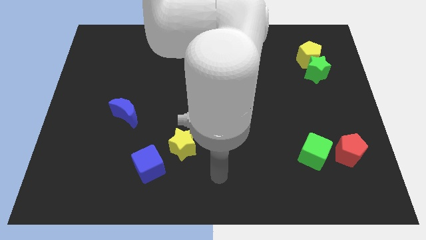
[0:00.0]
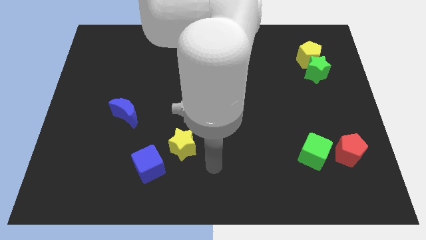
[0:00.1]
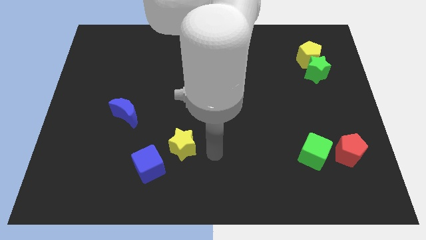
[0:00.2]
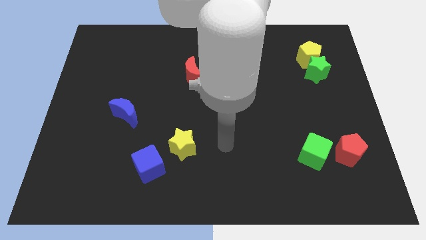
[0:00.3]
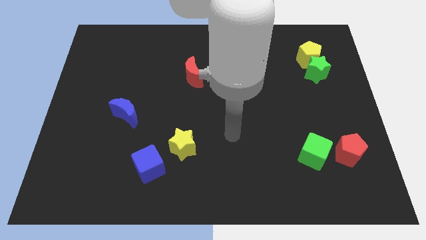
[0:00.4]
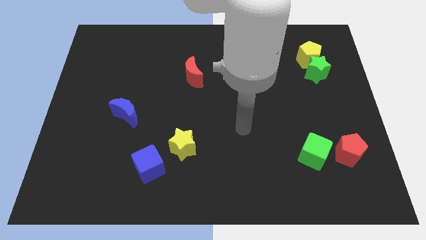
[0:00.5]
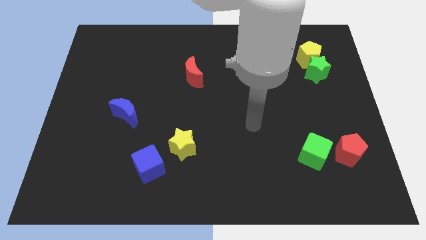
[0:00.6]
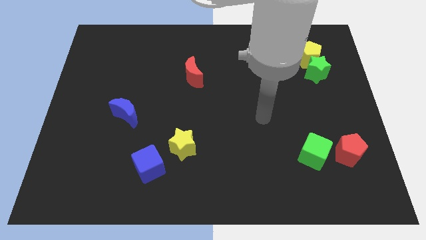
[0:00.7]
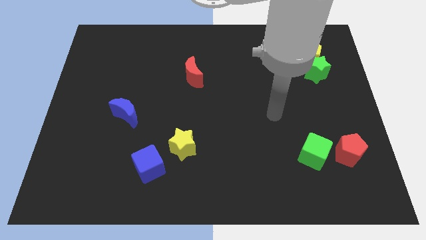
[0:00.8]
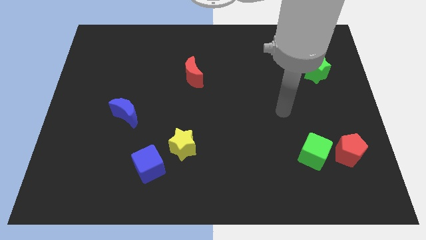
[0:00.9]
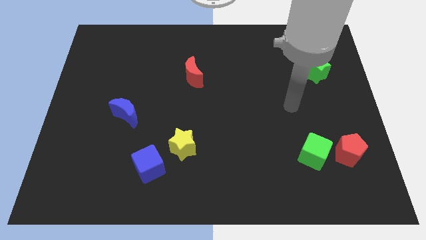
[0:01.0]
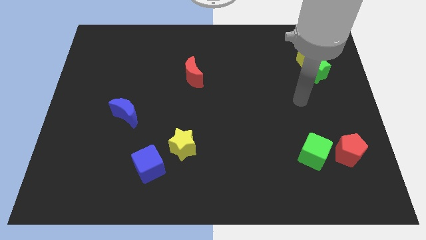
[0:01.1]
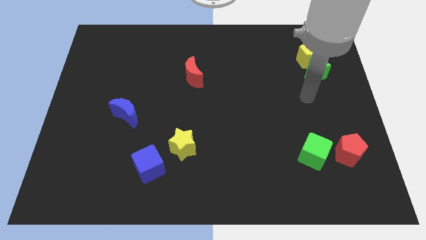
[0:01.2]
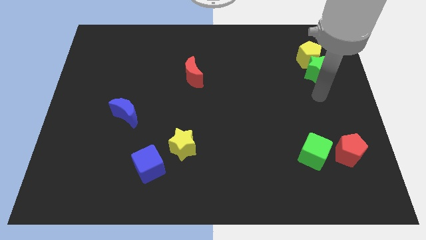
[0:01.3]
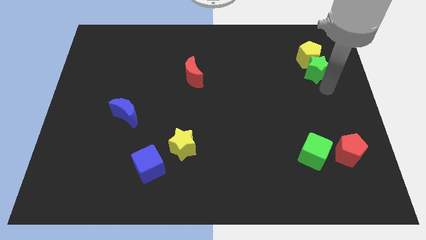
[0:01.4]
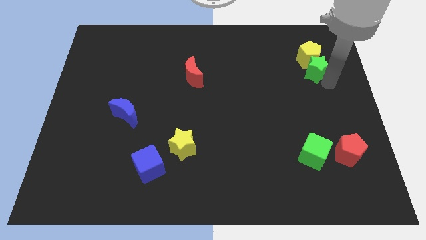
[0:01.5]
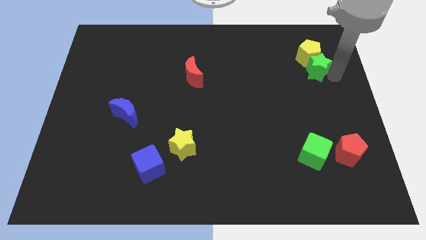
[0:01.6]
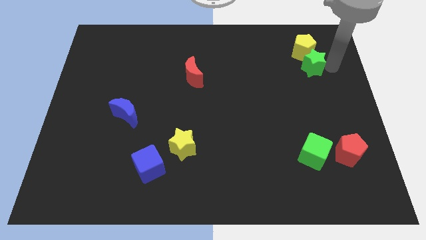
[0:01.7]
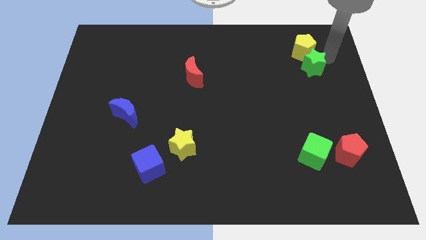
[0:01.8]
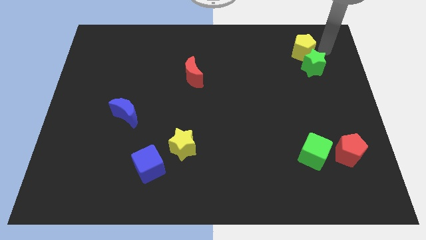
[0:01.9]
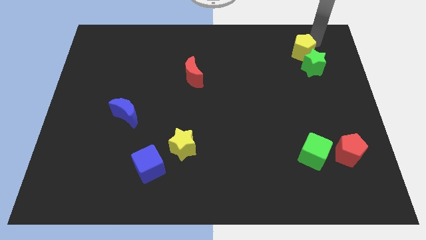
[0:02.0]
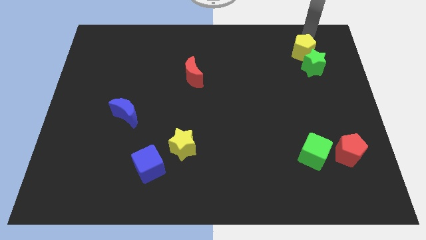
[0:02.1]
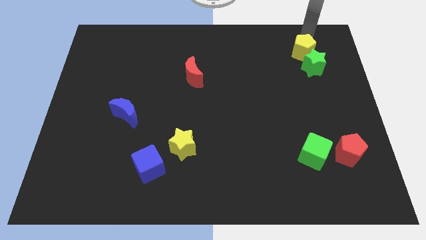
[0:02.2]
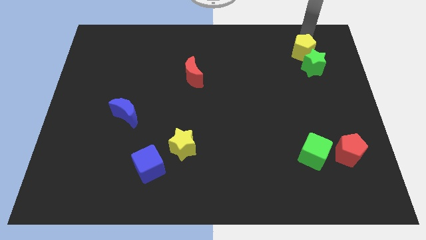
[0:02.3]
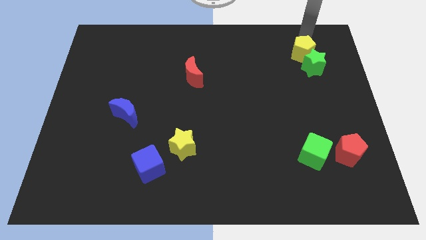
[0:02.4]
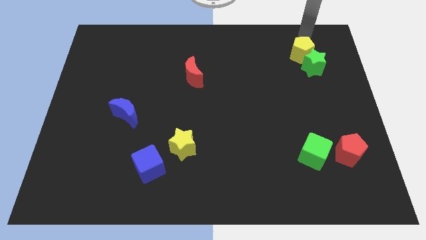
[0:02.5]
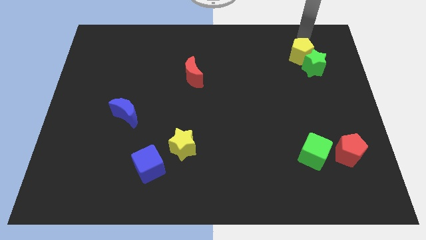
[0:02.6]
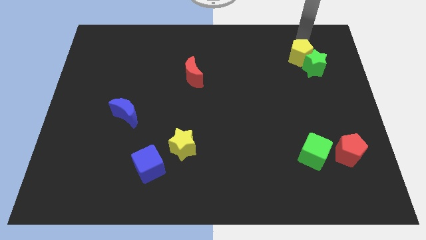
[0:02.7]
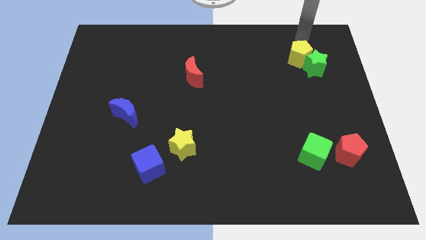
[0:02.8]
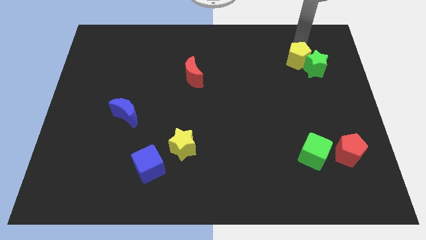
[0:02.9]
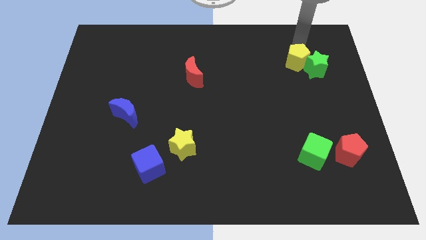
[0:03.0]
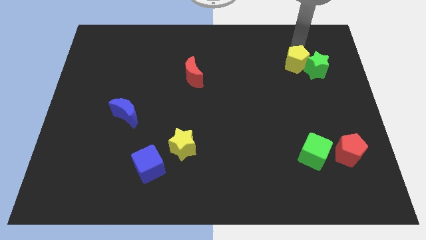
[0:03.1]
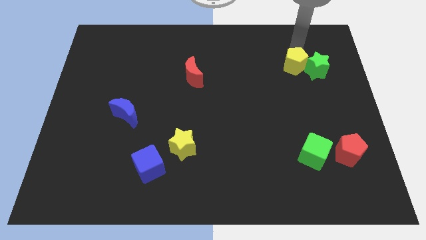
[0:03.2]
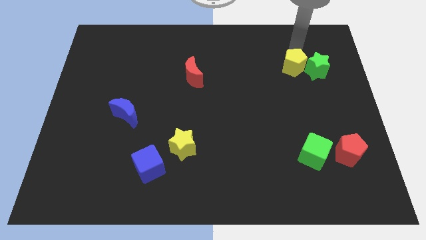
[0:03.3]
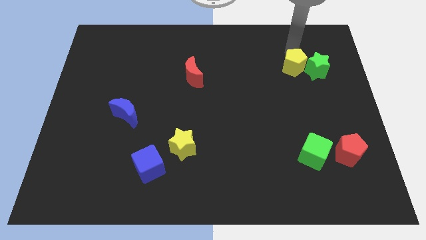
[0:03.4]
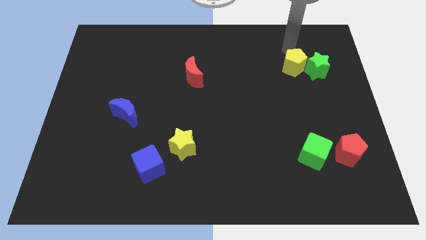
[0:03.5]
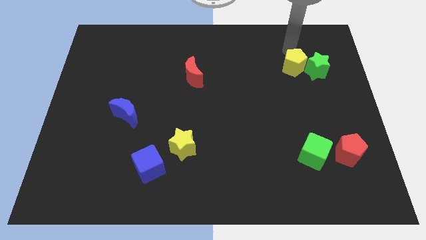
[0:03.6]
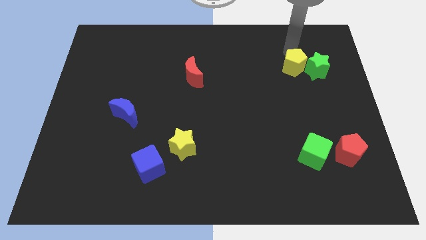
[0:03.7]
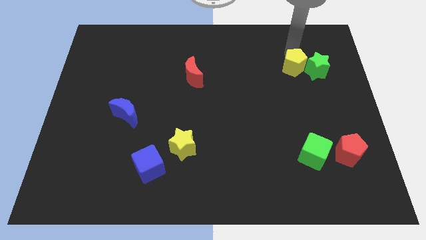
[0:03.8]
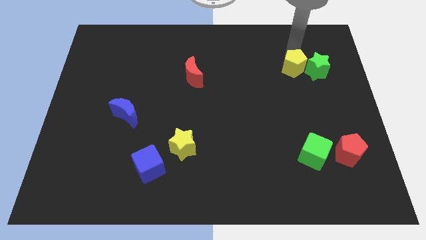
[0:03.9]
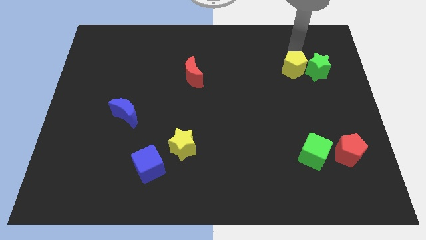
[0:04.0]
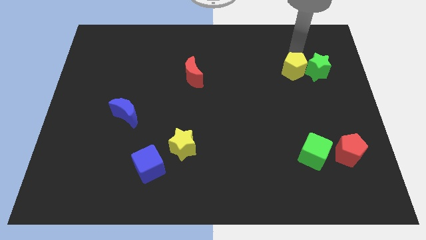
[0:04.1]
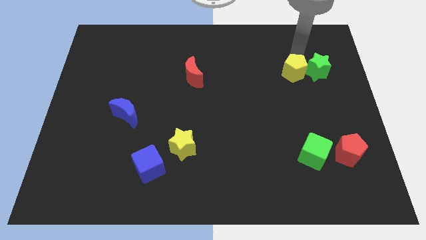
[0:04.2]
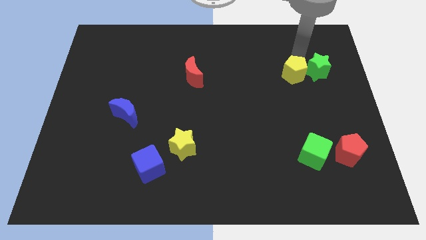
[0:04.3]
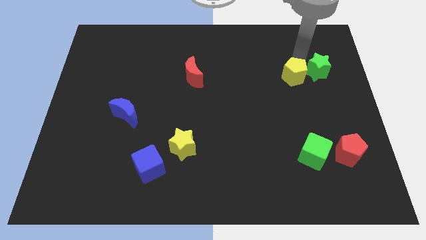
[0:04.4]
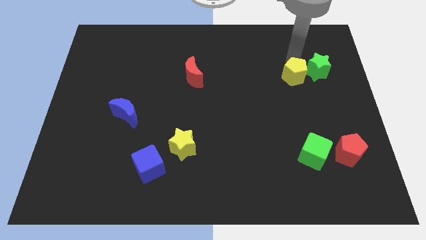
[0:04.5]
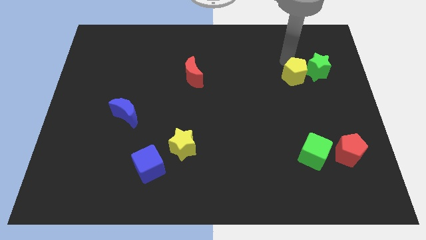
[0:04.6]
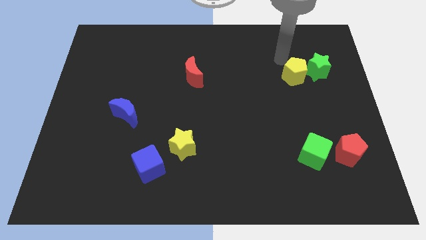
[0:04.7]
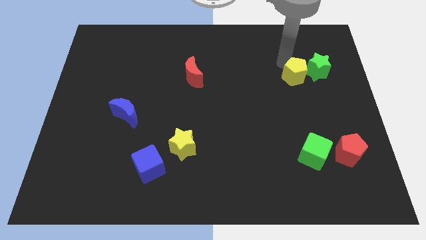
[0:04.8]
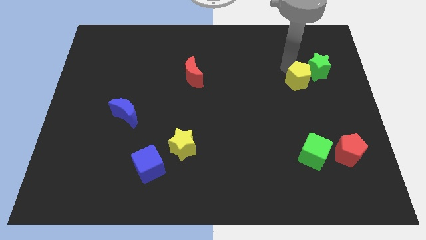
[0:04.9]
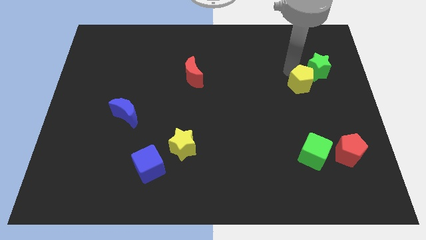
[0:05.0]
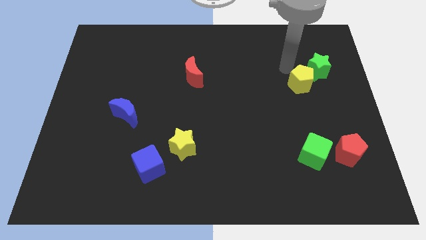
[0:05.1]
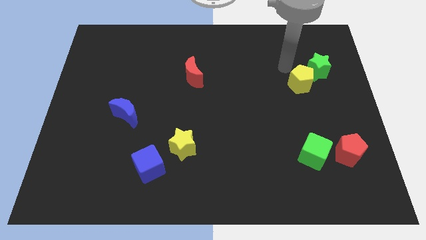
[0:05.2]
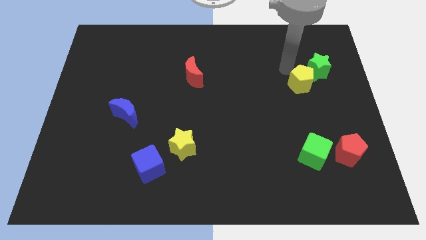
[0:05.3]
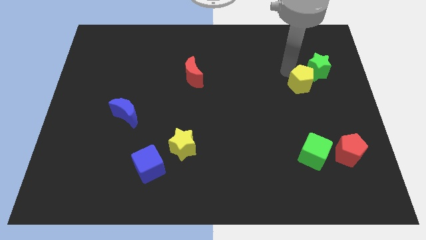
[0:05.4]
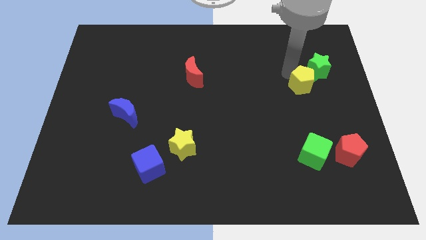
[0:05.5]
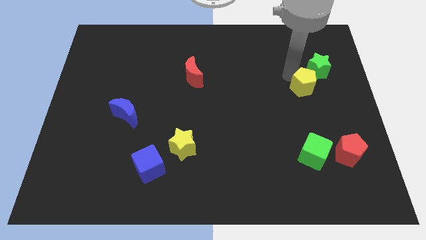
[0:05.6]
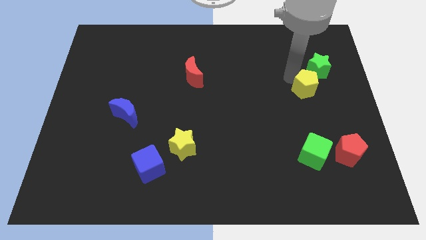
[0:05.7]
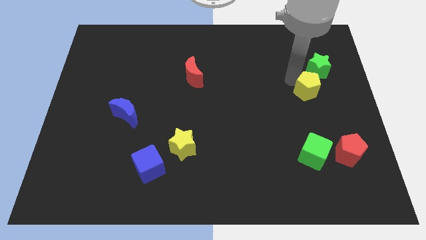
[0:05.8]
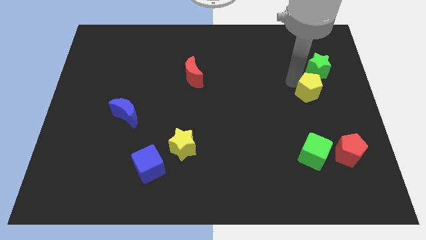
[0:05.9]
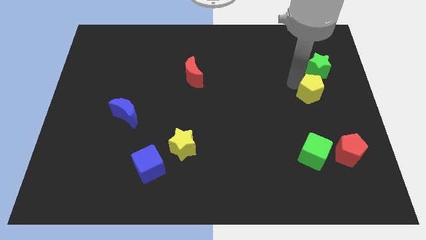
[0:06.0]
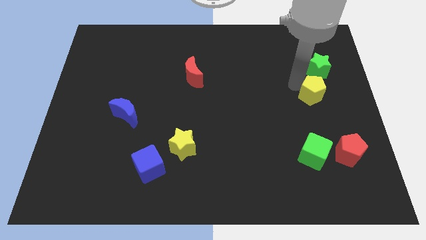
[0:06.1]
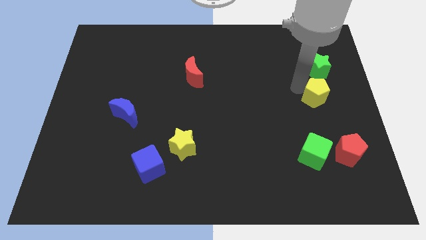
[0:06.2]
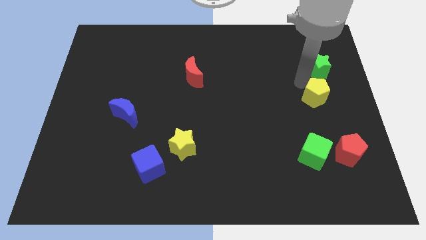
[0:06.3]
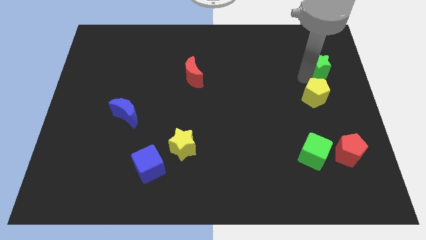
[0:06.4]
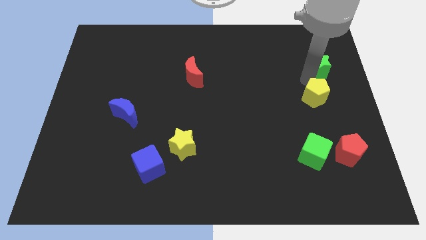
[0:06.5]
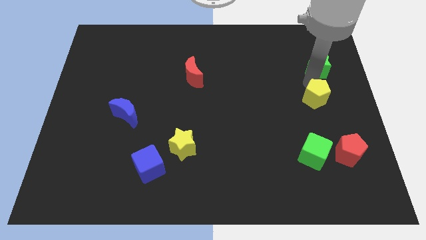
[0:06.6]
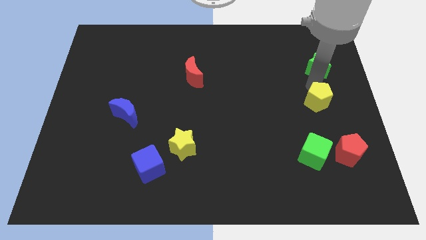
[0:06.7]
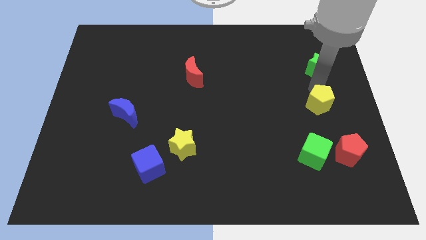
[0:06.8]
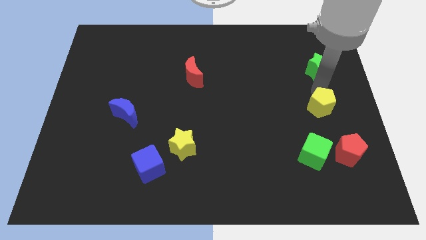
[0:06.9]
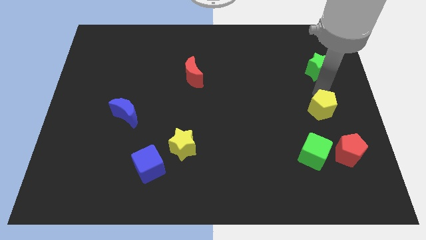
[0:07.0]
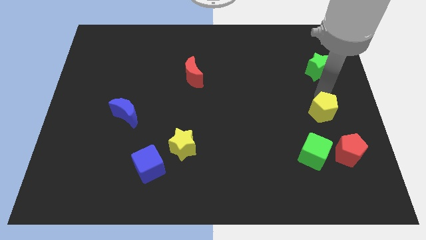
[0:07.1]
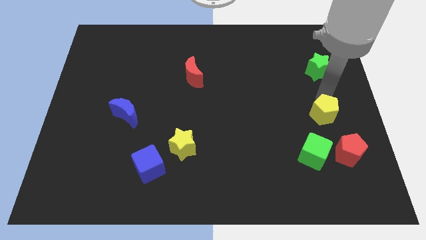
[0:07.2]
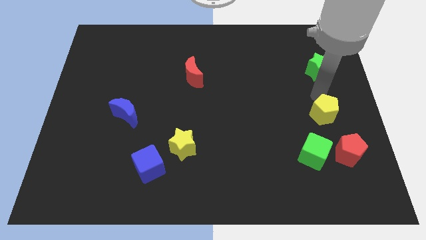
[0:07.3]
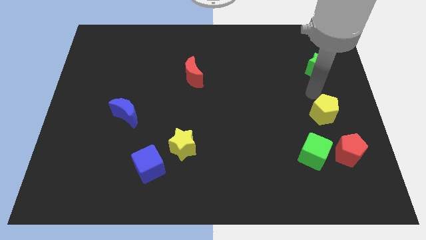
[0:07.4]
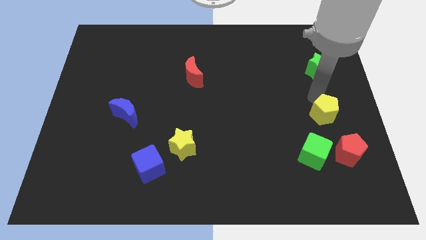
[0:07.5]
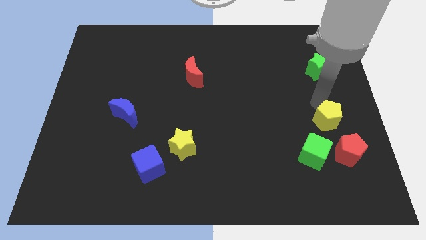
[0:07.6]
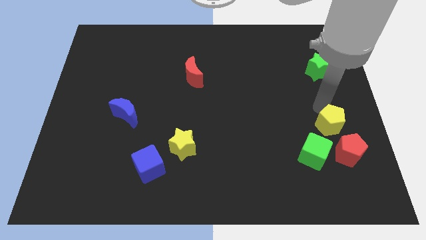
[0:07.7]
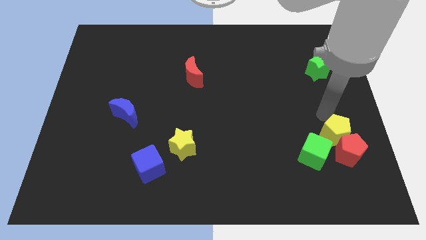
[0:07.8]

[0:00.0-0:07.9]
slide the yellow pentagon close to the red pentagon
